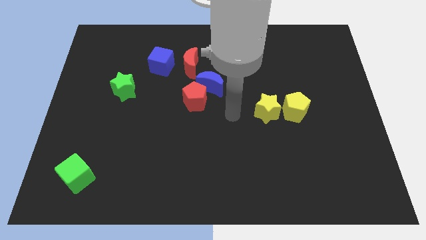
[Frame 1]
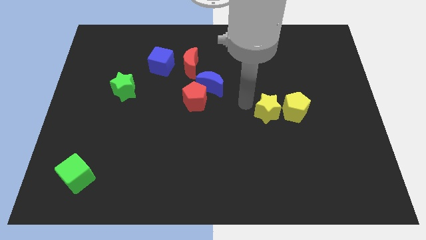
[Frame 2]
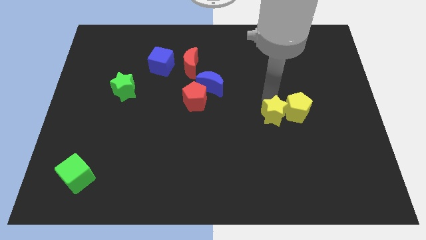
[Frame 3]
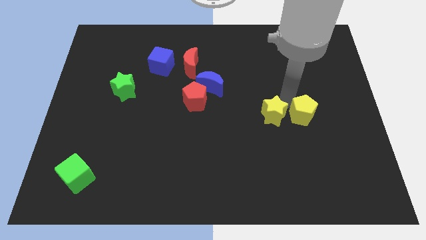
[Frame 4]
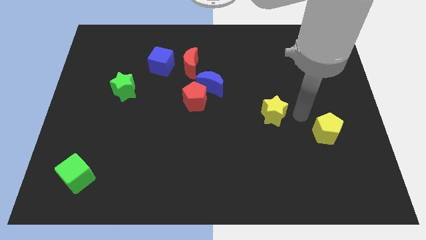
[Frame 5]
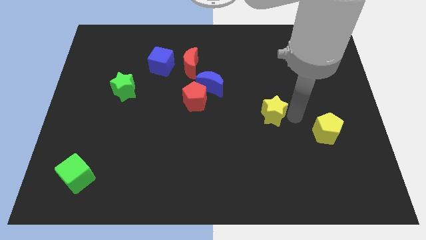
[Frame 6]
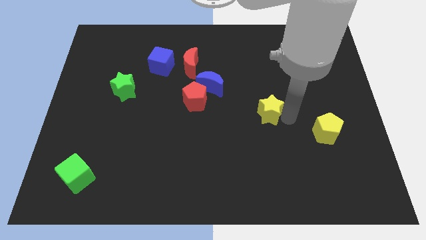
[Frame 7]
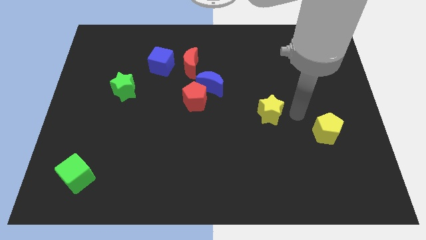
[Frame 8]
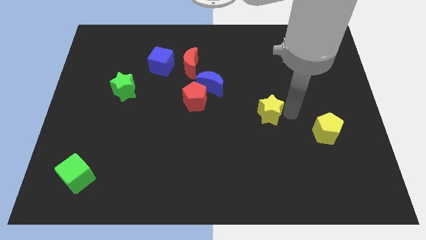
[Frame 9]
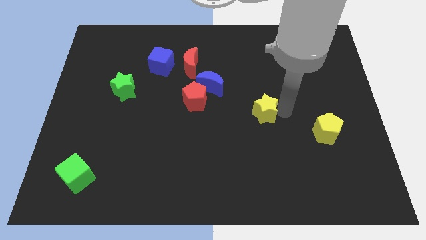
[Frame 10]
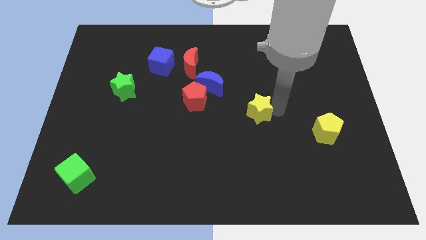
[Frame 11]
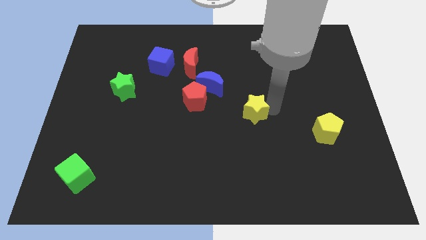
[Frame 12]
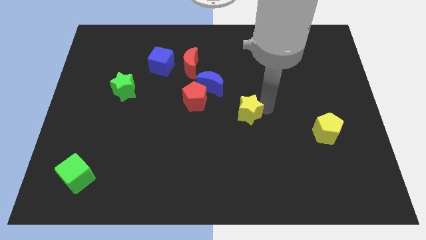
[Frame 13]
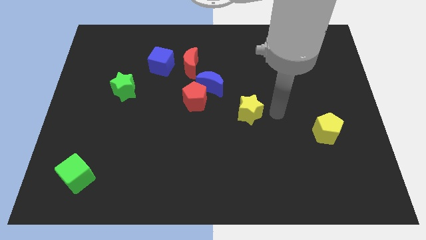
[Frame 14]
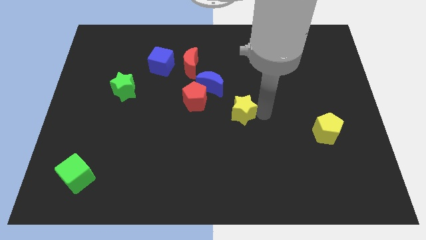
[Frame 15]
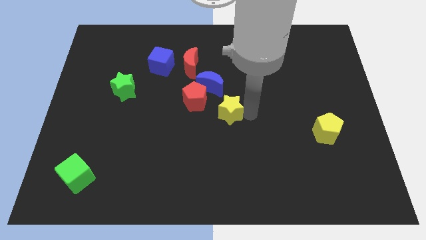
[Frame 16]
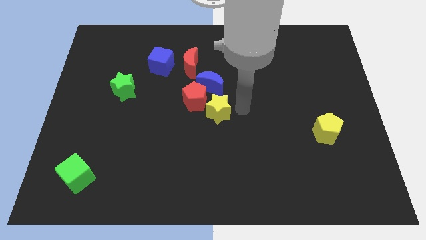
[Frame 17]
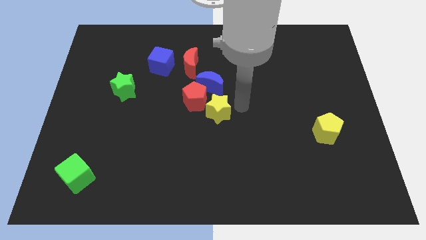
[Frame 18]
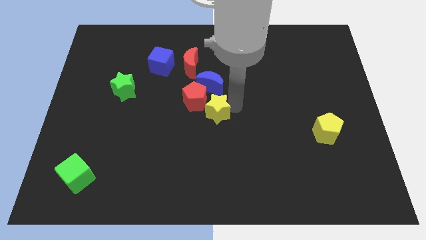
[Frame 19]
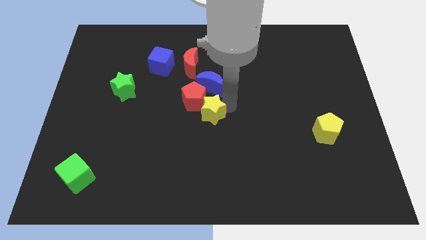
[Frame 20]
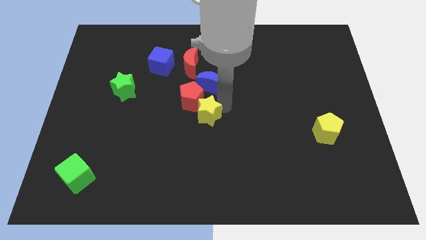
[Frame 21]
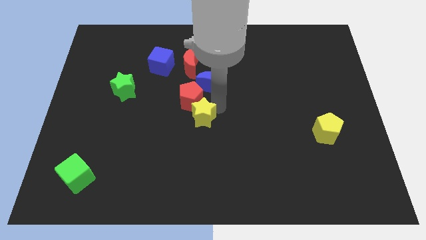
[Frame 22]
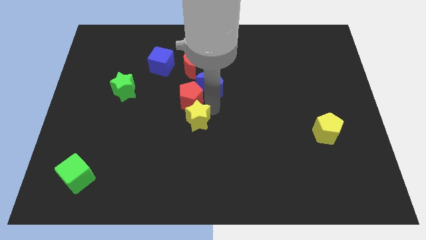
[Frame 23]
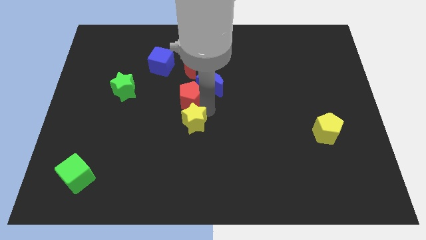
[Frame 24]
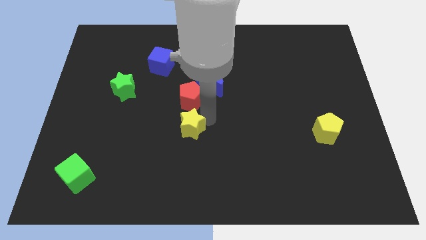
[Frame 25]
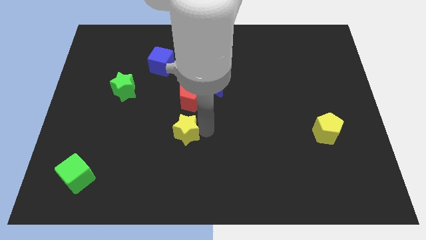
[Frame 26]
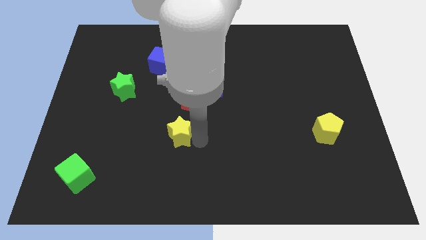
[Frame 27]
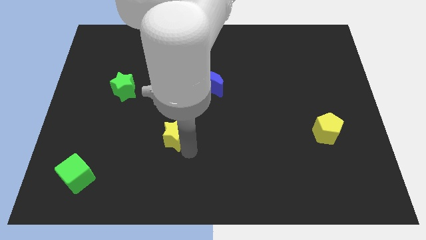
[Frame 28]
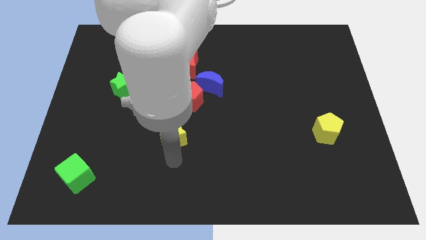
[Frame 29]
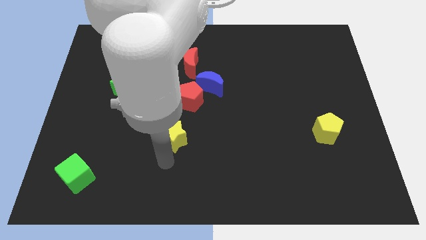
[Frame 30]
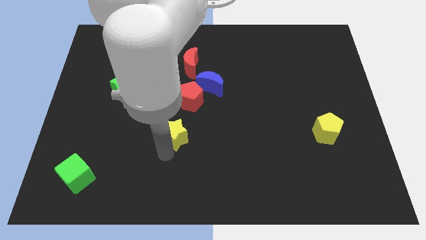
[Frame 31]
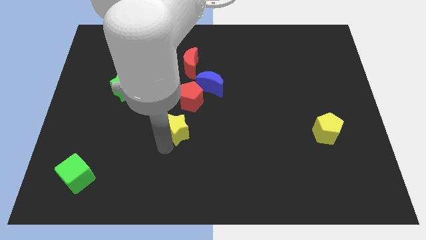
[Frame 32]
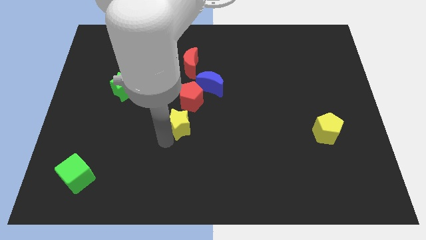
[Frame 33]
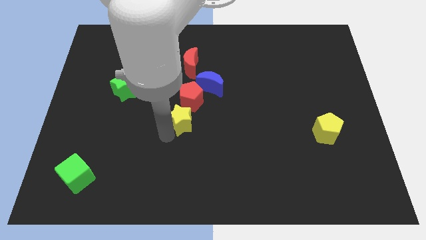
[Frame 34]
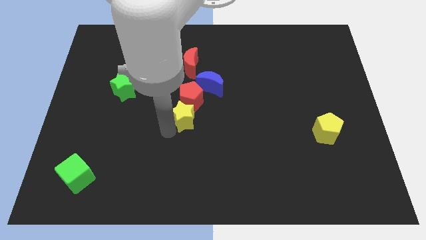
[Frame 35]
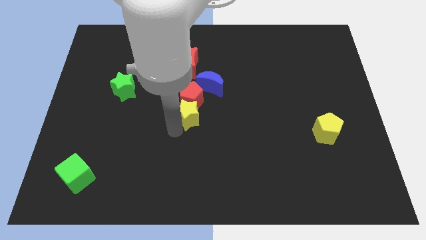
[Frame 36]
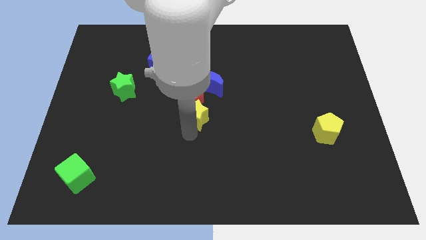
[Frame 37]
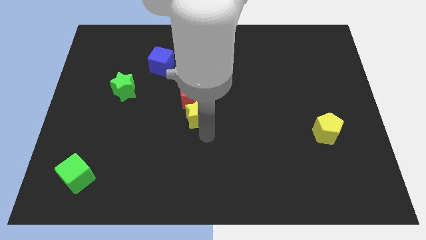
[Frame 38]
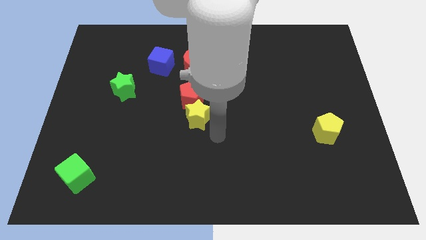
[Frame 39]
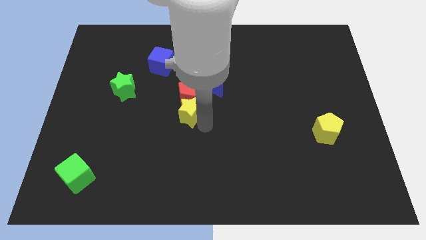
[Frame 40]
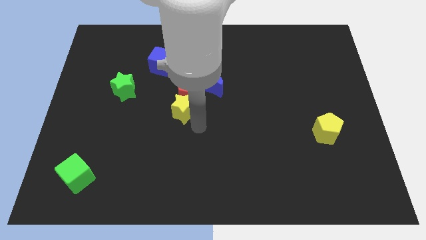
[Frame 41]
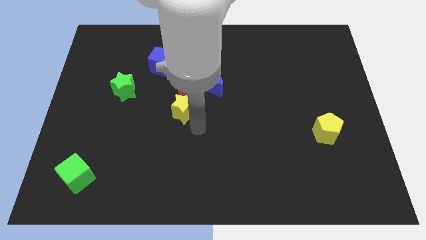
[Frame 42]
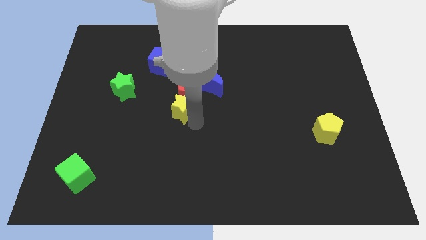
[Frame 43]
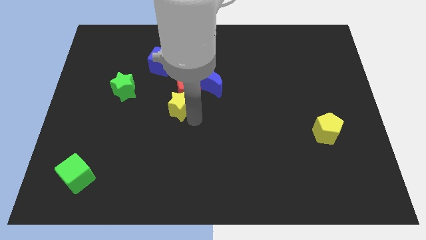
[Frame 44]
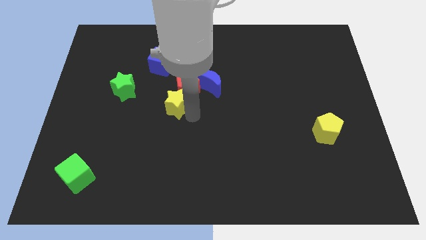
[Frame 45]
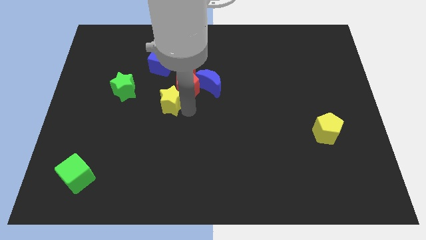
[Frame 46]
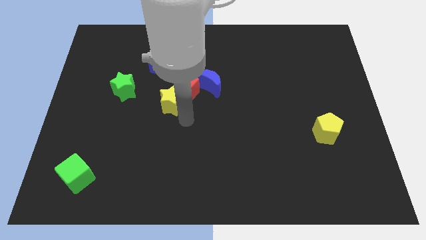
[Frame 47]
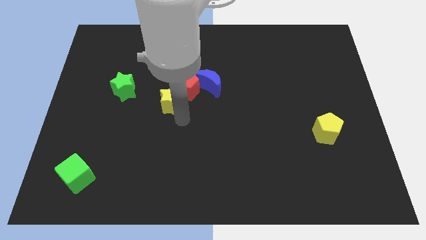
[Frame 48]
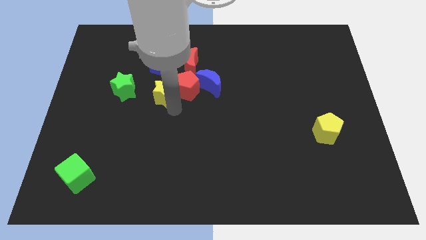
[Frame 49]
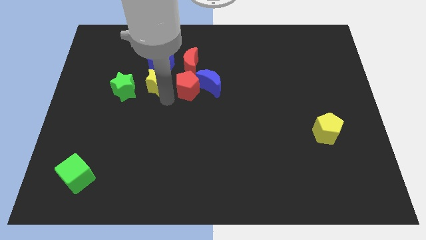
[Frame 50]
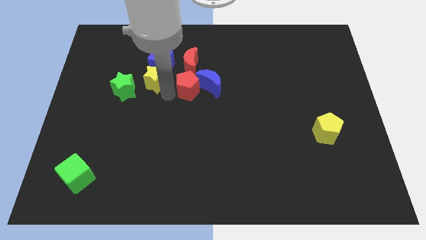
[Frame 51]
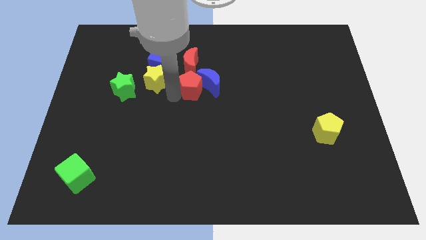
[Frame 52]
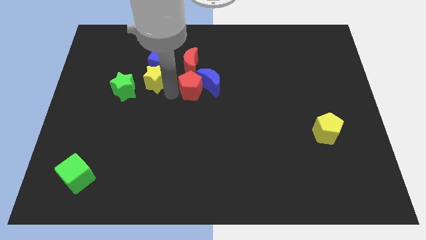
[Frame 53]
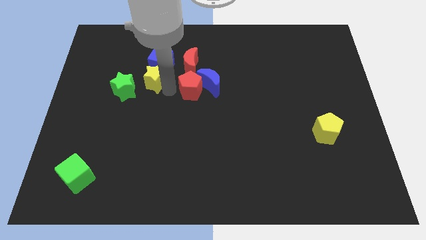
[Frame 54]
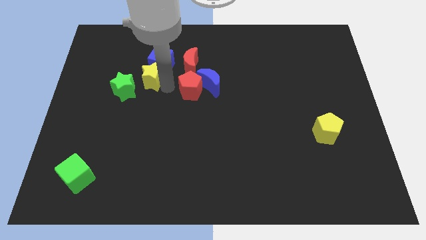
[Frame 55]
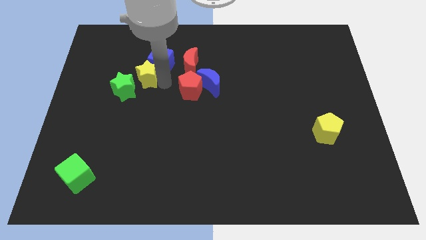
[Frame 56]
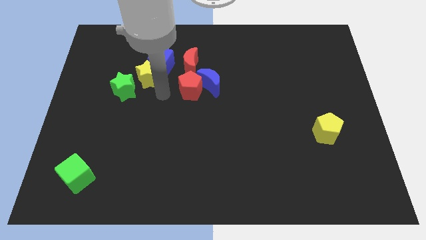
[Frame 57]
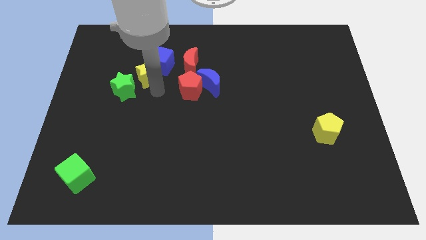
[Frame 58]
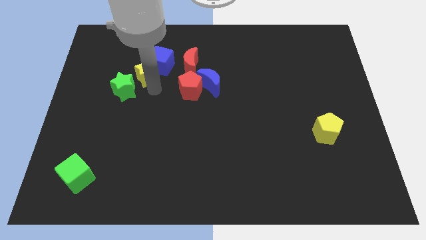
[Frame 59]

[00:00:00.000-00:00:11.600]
slide the yellow star to the top of the green star

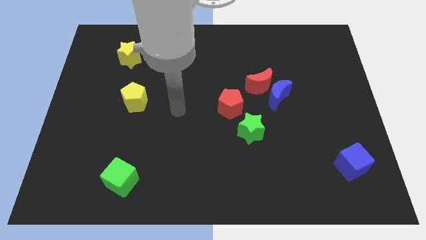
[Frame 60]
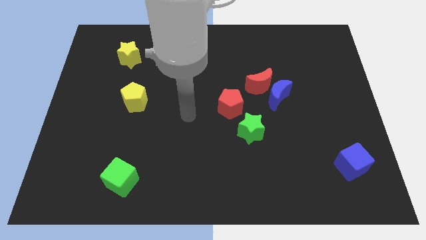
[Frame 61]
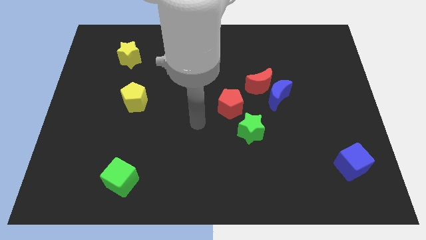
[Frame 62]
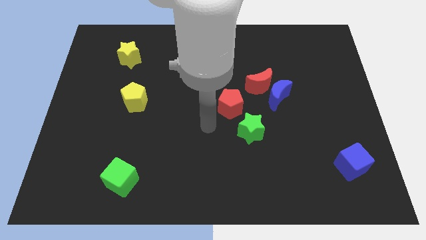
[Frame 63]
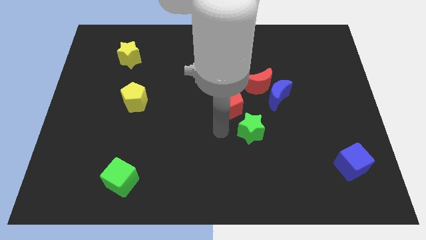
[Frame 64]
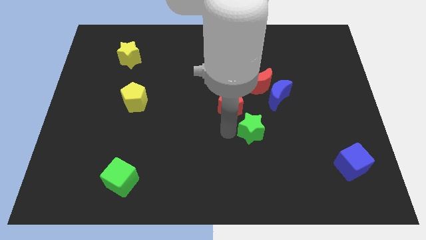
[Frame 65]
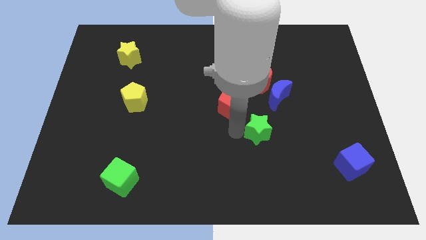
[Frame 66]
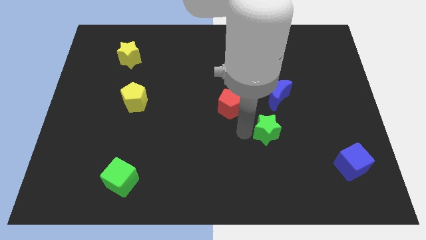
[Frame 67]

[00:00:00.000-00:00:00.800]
put the green star to the bottom of the blue moon
